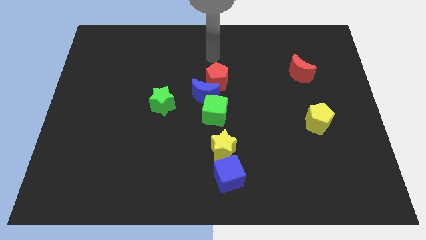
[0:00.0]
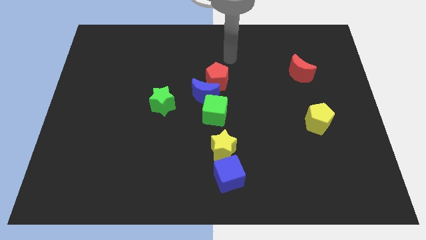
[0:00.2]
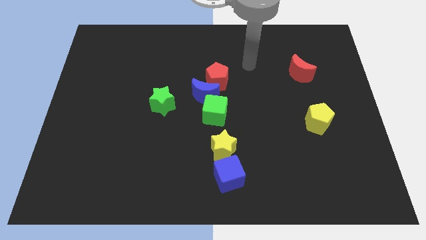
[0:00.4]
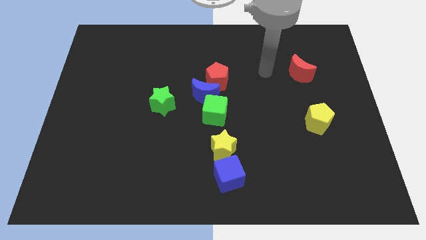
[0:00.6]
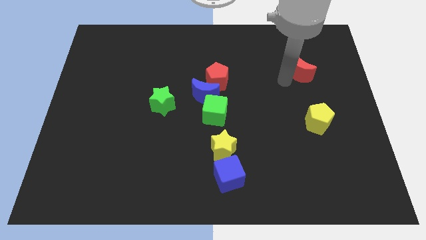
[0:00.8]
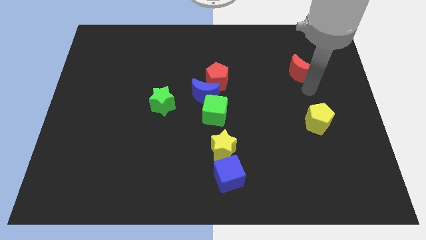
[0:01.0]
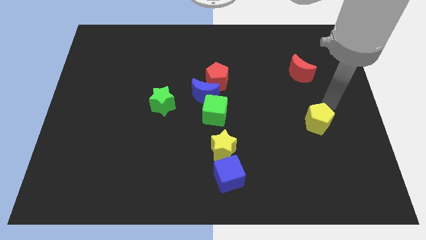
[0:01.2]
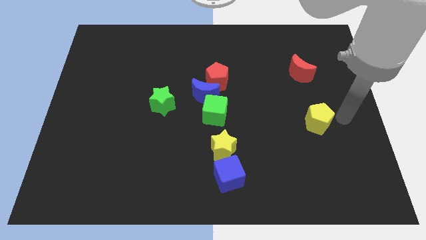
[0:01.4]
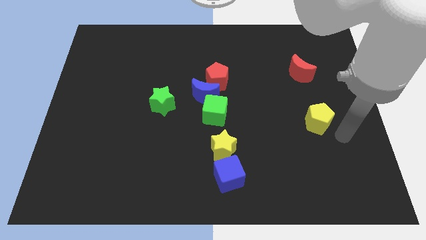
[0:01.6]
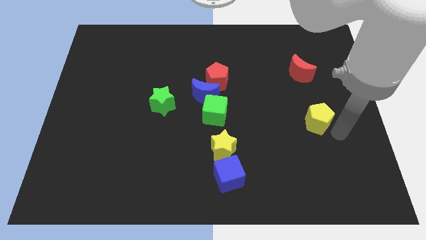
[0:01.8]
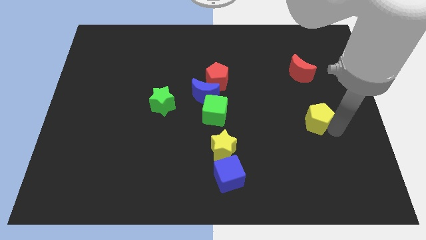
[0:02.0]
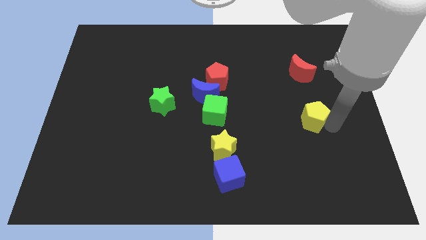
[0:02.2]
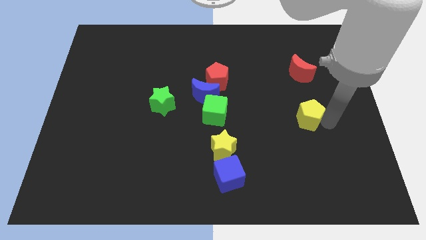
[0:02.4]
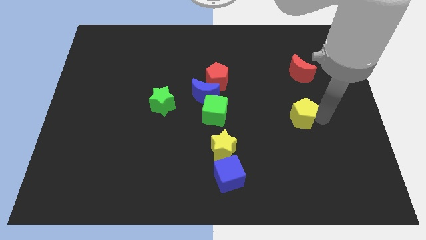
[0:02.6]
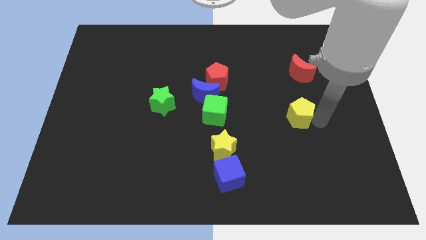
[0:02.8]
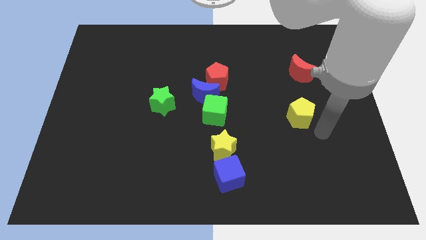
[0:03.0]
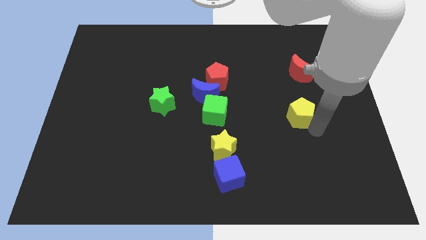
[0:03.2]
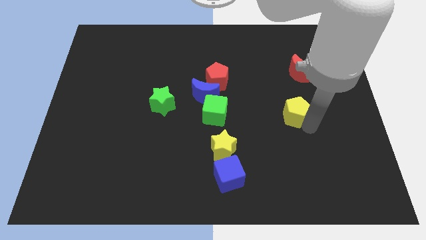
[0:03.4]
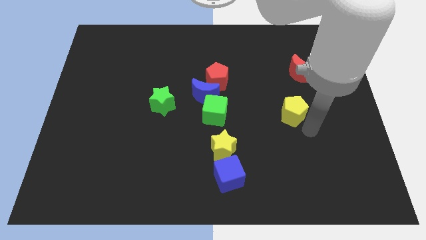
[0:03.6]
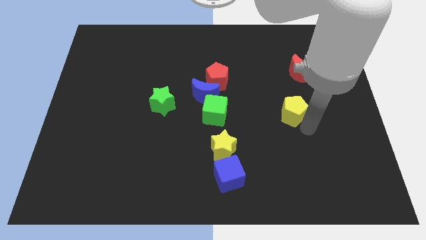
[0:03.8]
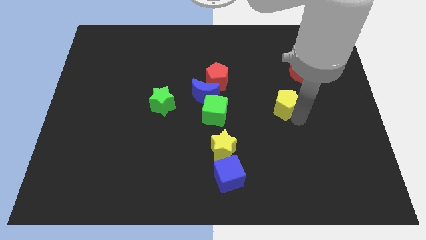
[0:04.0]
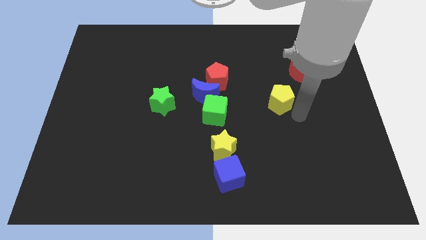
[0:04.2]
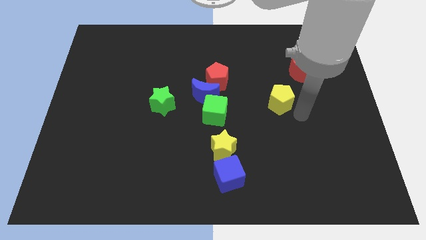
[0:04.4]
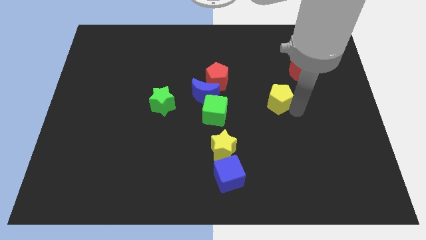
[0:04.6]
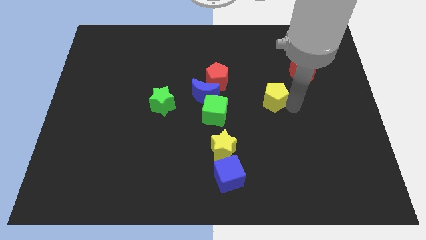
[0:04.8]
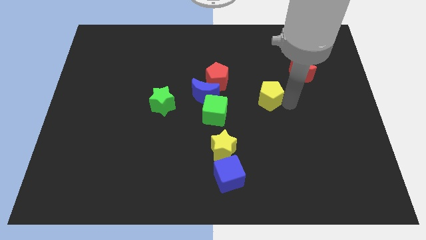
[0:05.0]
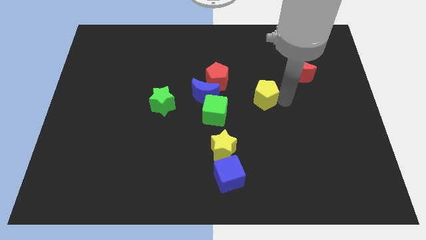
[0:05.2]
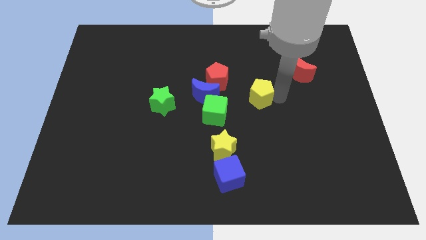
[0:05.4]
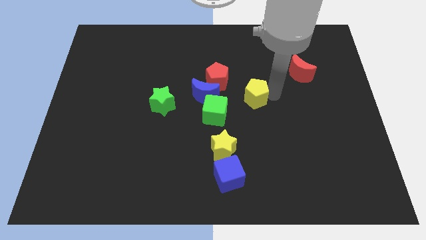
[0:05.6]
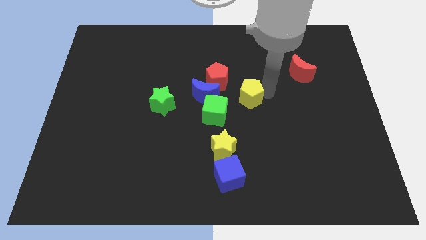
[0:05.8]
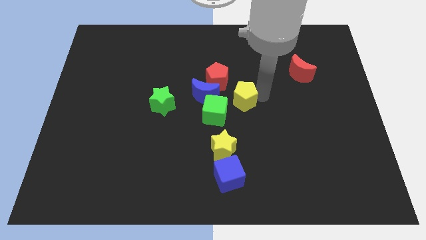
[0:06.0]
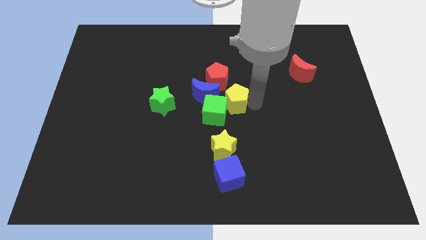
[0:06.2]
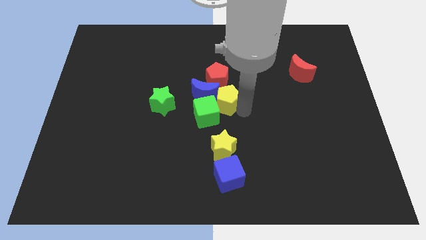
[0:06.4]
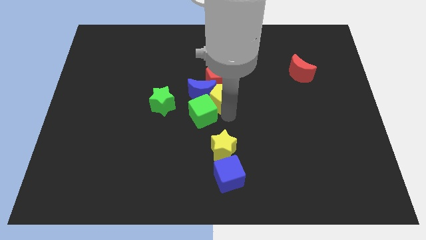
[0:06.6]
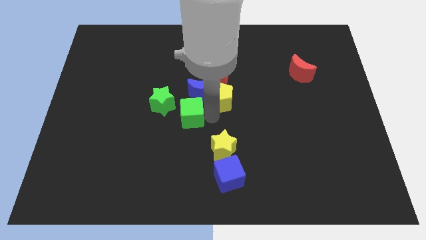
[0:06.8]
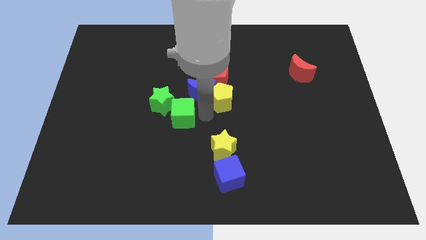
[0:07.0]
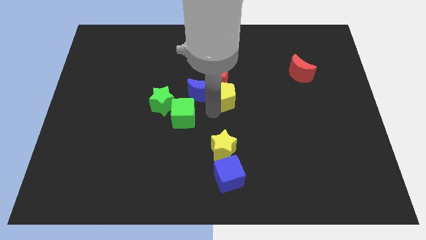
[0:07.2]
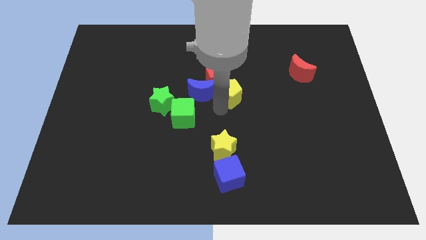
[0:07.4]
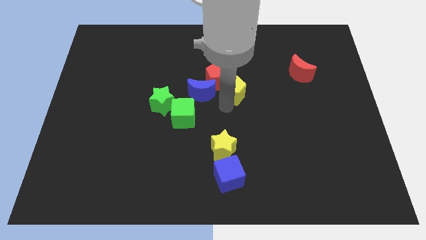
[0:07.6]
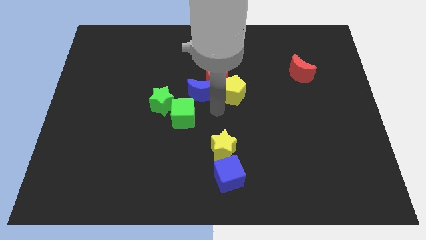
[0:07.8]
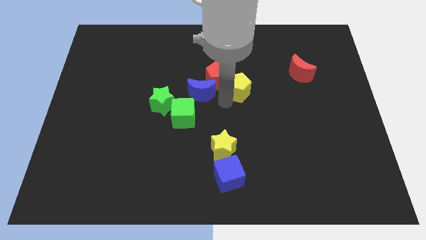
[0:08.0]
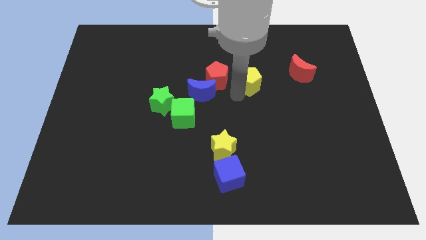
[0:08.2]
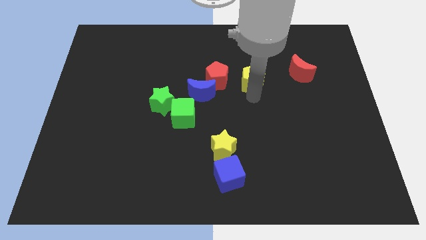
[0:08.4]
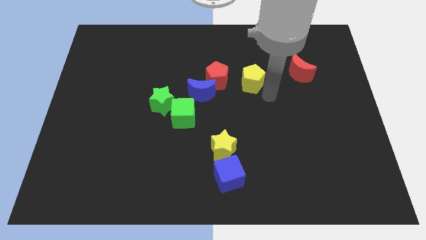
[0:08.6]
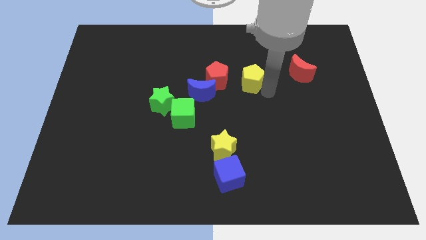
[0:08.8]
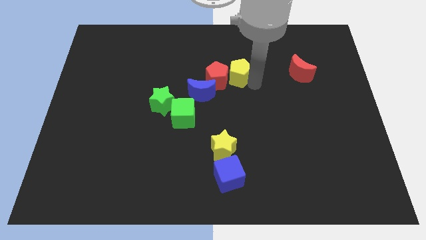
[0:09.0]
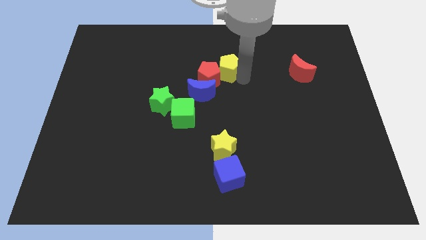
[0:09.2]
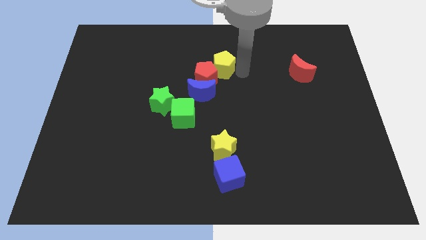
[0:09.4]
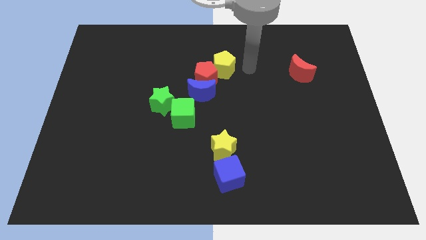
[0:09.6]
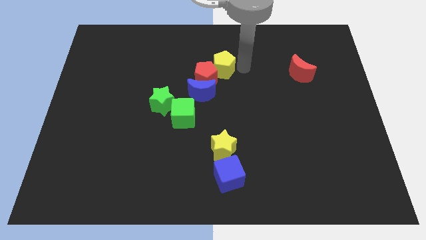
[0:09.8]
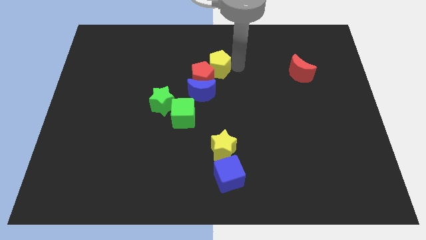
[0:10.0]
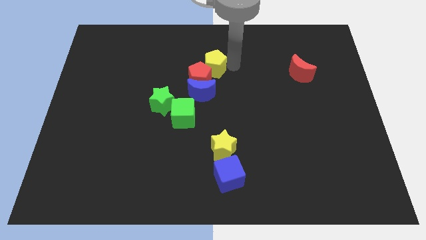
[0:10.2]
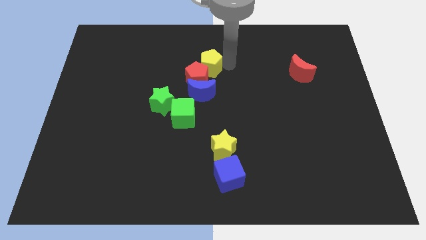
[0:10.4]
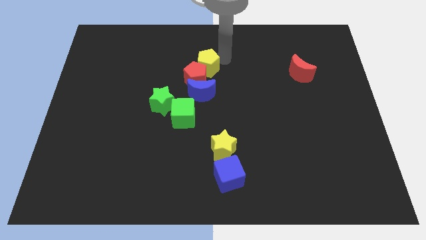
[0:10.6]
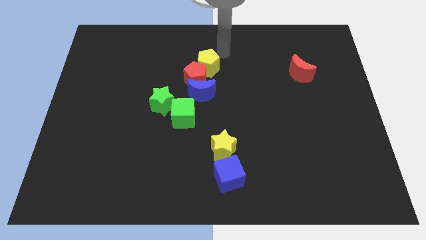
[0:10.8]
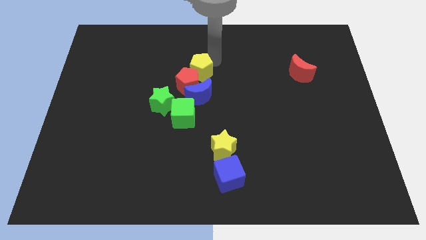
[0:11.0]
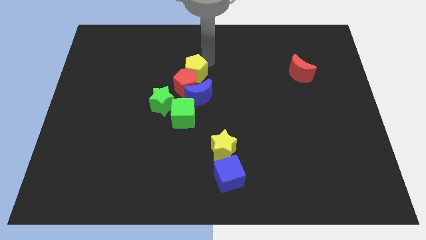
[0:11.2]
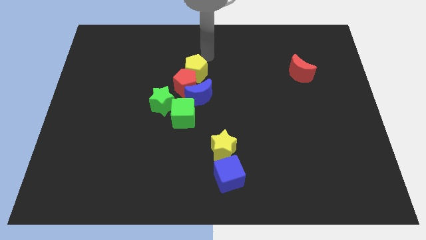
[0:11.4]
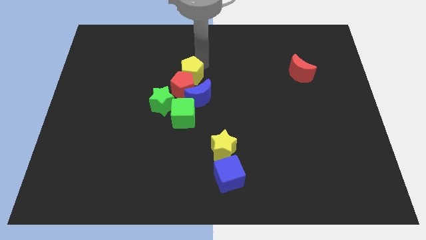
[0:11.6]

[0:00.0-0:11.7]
push the yellow pentagon diagonally up and to the right of the green star

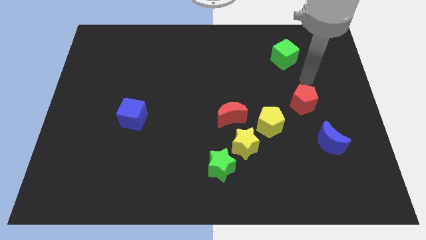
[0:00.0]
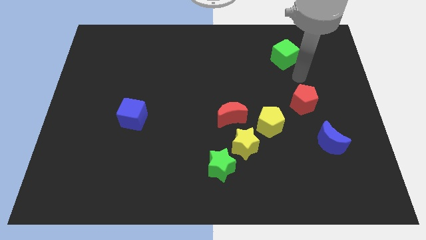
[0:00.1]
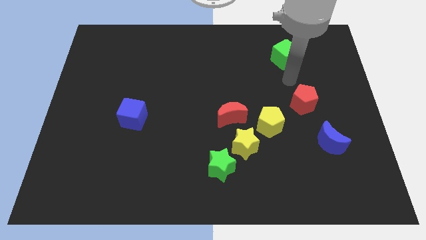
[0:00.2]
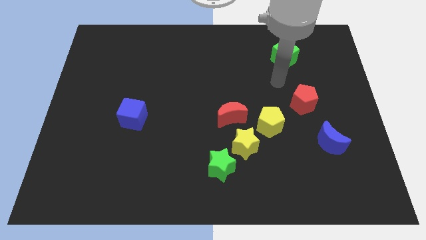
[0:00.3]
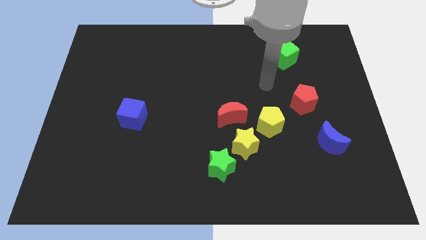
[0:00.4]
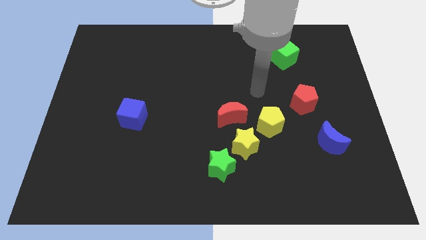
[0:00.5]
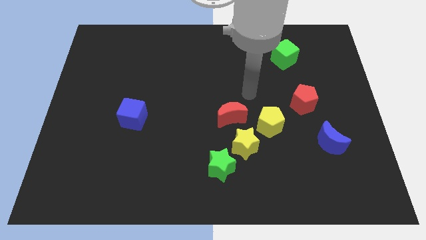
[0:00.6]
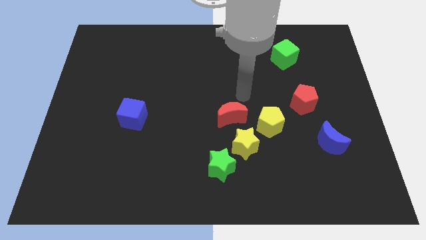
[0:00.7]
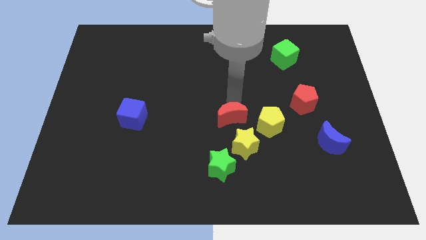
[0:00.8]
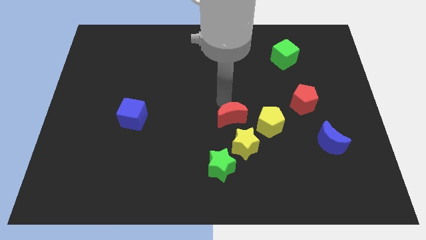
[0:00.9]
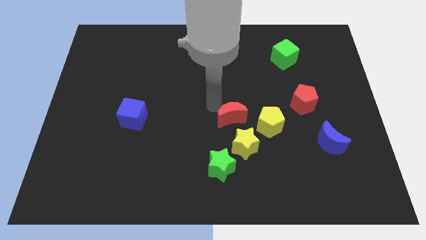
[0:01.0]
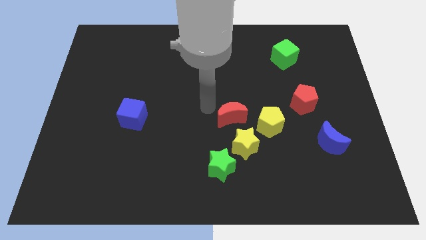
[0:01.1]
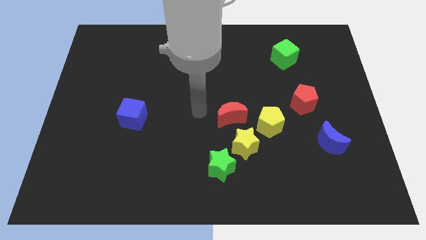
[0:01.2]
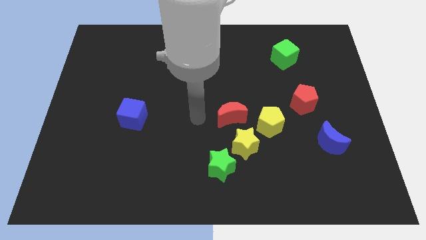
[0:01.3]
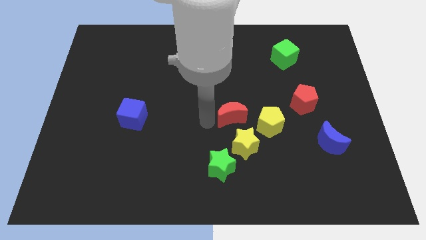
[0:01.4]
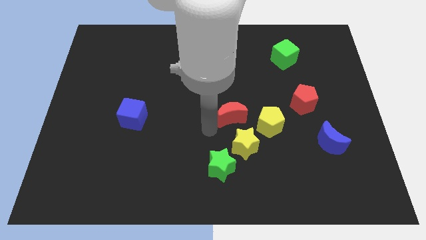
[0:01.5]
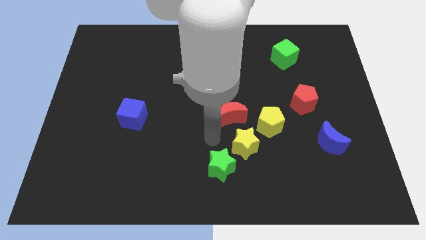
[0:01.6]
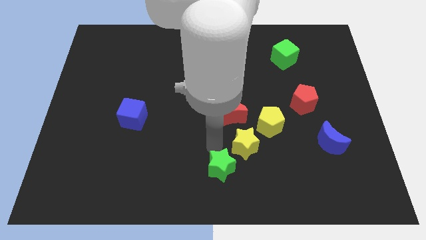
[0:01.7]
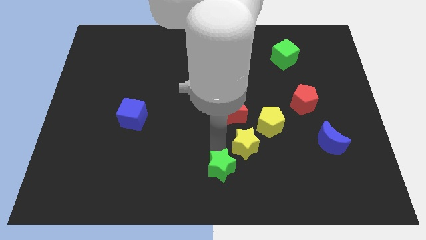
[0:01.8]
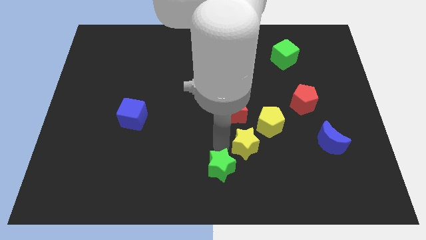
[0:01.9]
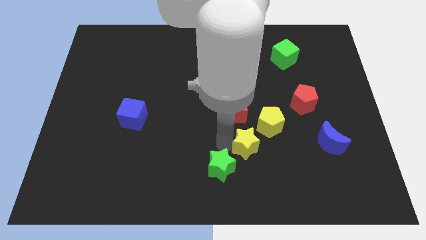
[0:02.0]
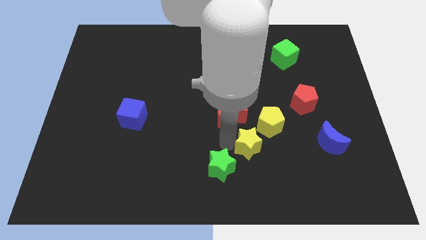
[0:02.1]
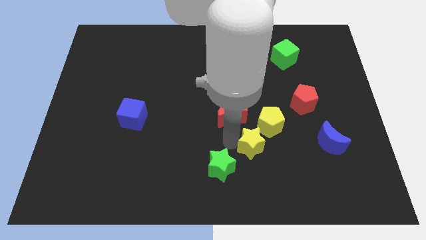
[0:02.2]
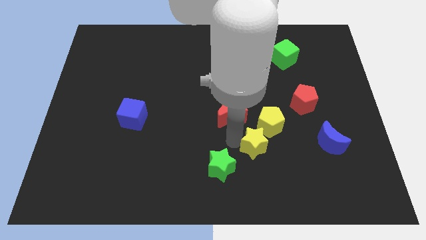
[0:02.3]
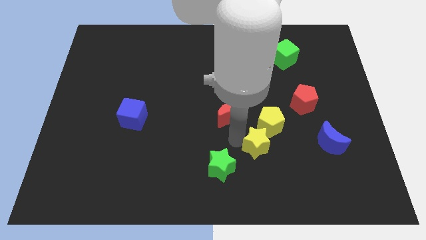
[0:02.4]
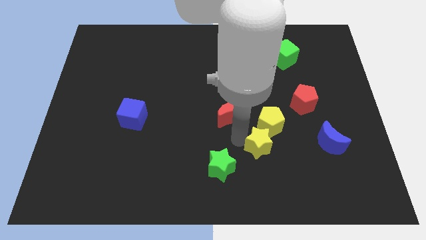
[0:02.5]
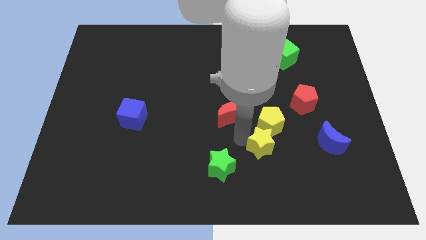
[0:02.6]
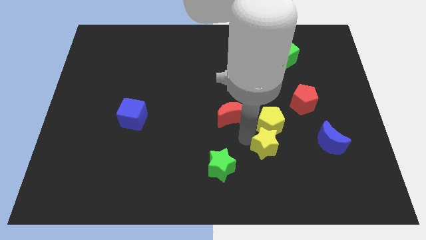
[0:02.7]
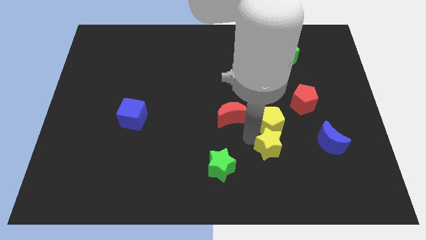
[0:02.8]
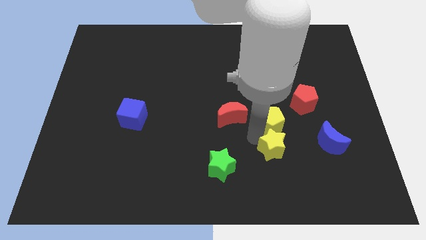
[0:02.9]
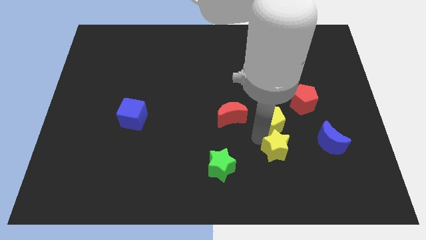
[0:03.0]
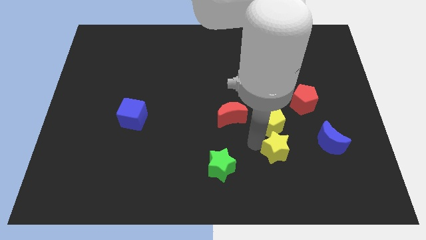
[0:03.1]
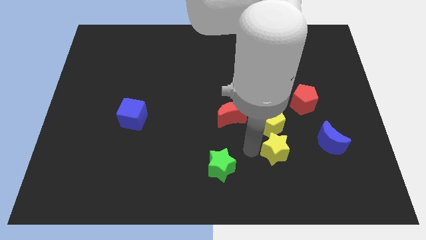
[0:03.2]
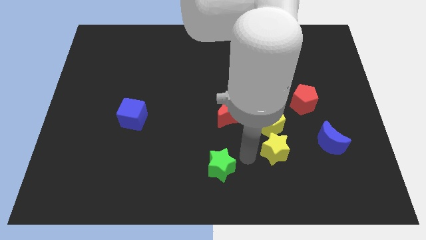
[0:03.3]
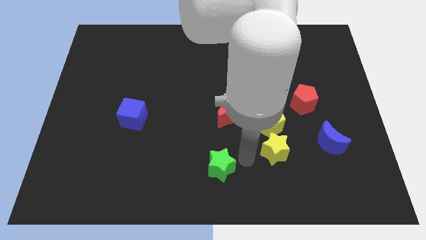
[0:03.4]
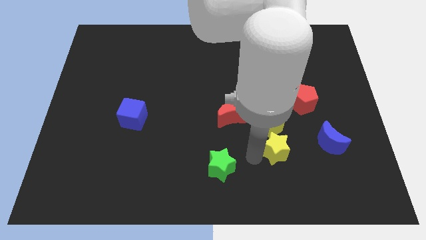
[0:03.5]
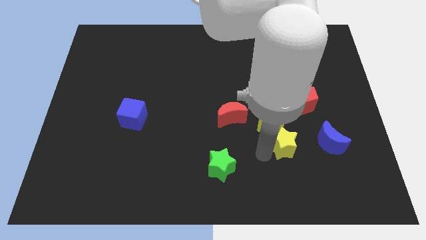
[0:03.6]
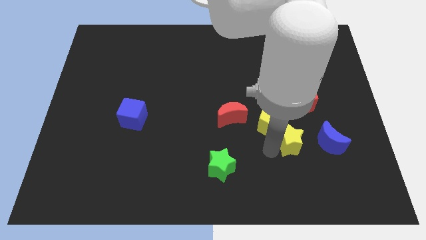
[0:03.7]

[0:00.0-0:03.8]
push the yellow star to the bottom side of the red pentagon
